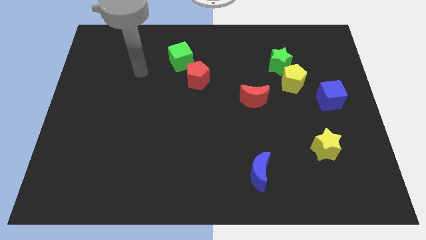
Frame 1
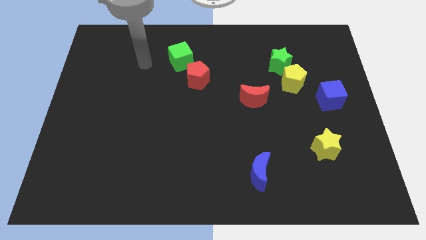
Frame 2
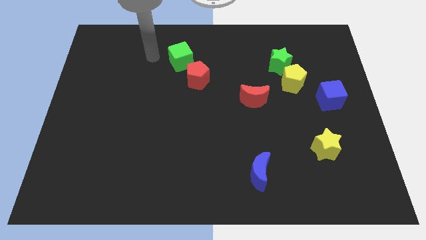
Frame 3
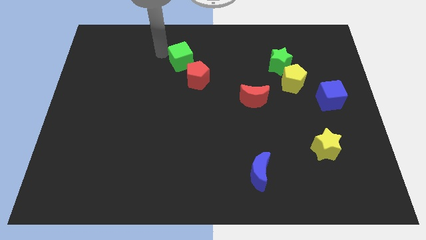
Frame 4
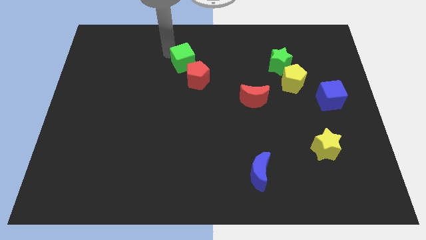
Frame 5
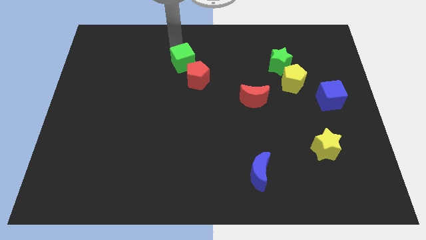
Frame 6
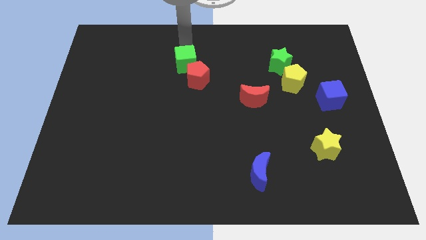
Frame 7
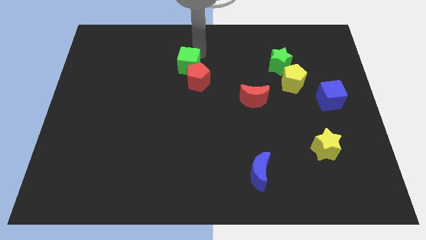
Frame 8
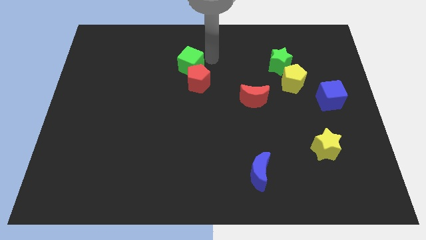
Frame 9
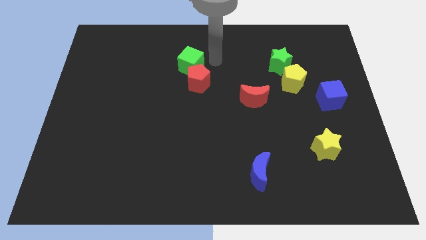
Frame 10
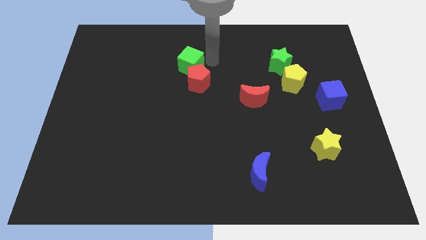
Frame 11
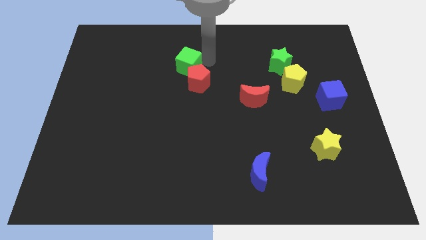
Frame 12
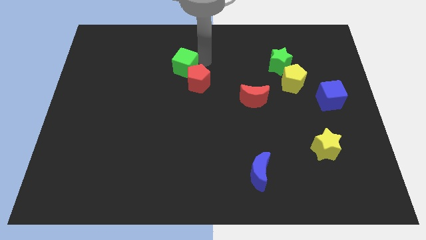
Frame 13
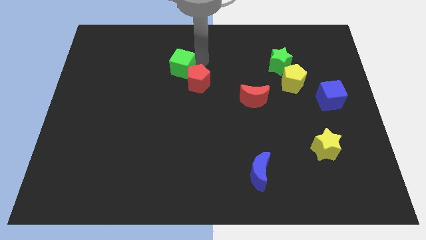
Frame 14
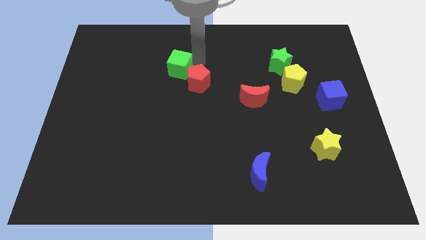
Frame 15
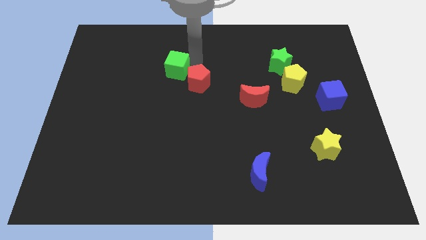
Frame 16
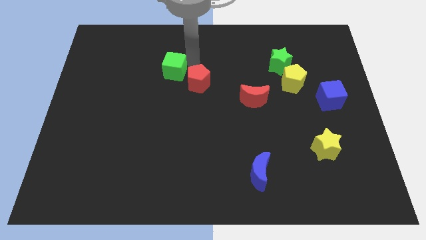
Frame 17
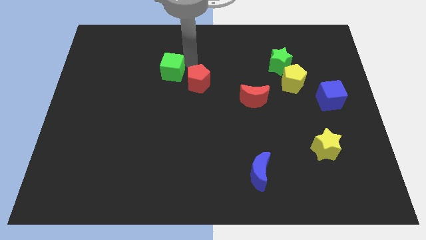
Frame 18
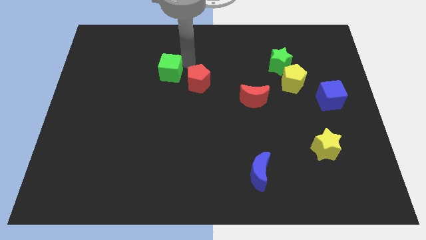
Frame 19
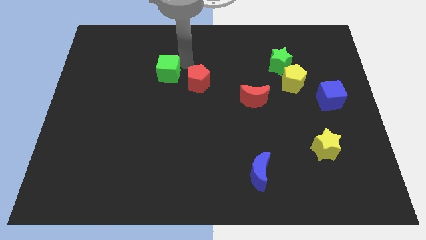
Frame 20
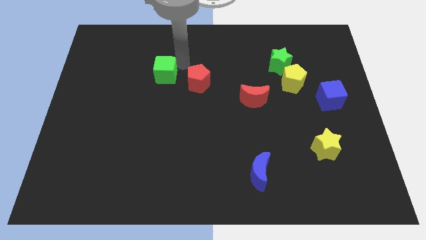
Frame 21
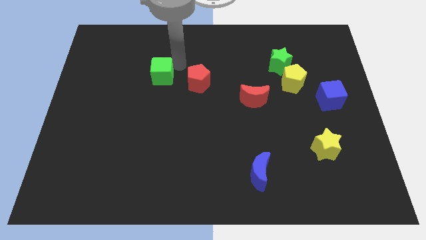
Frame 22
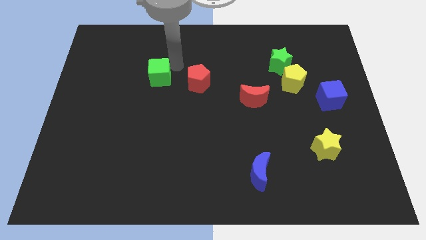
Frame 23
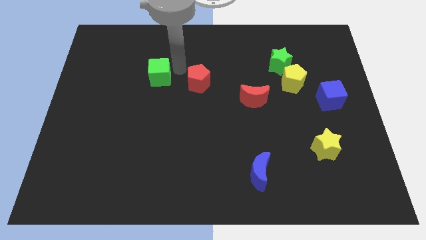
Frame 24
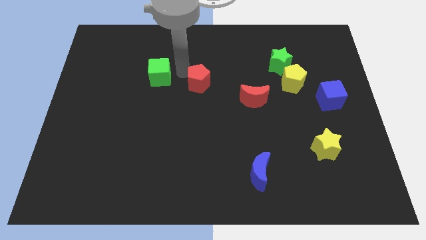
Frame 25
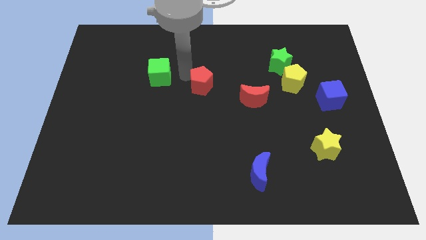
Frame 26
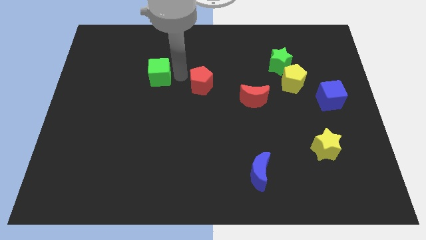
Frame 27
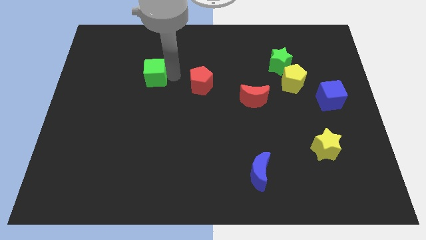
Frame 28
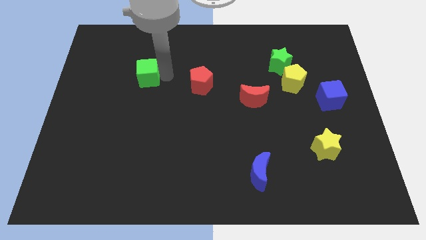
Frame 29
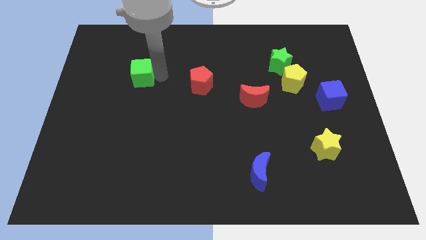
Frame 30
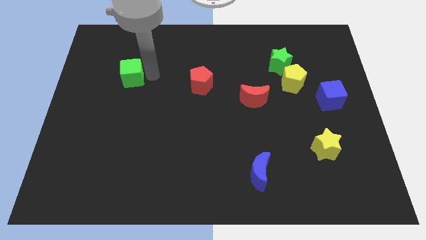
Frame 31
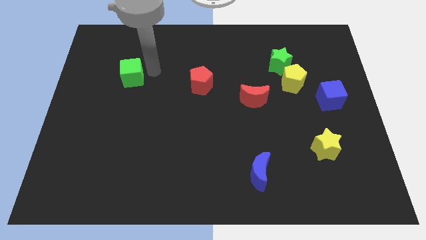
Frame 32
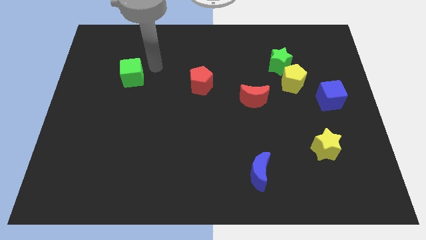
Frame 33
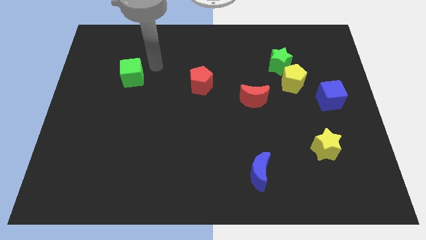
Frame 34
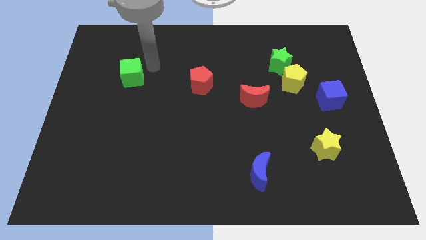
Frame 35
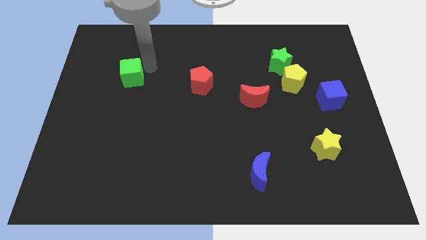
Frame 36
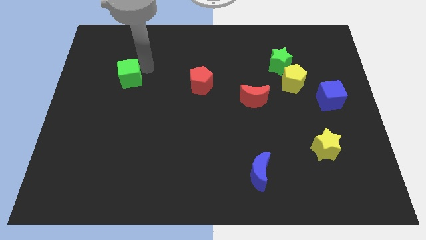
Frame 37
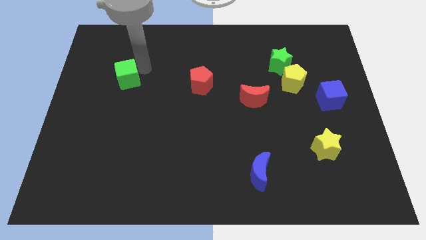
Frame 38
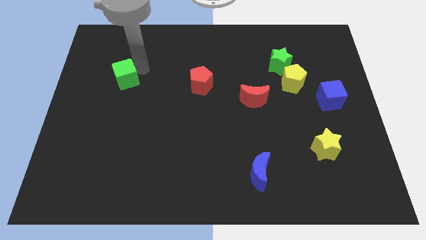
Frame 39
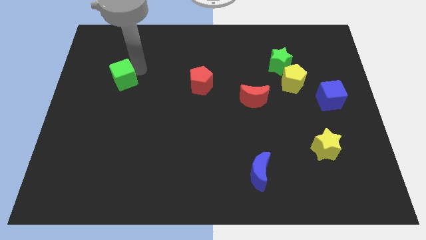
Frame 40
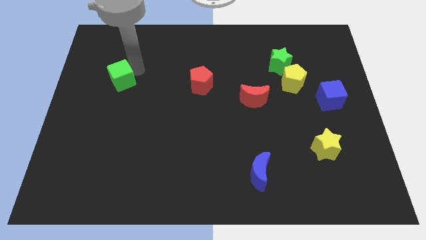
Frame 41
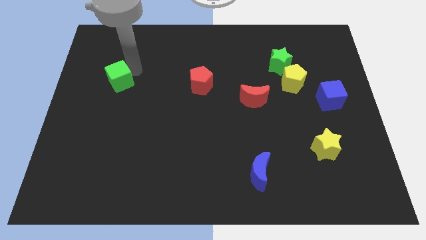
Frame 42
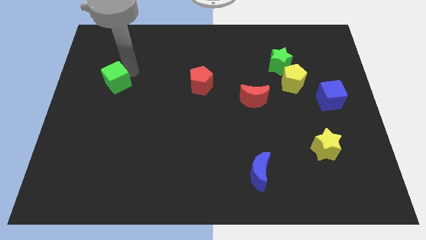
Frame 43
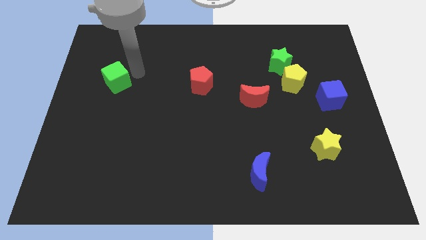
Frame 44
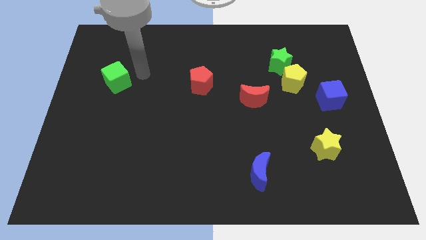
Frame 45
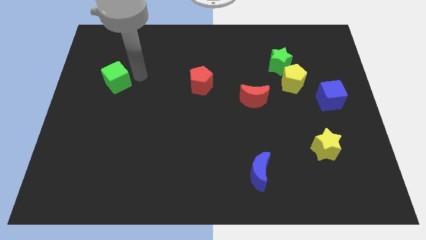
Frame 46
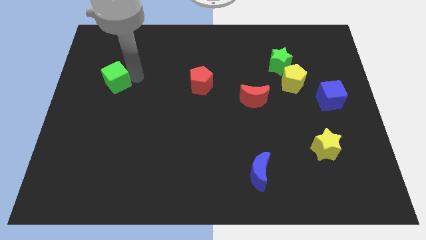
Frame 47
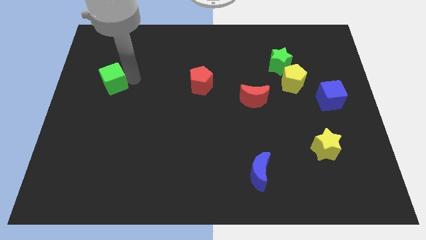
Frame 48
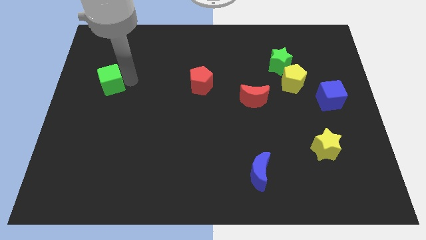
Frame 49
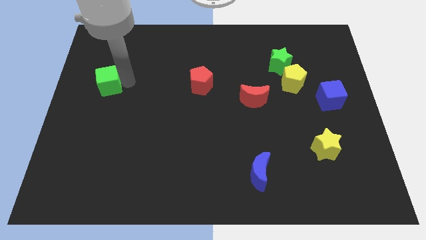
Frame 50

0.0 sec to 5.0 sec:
move the green cube to the left side

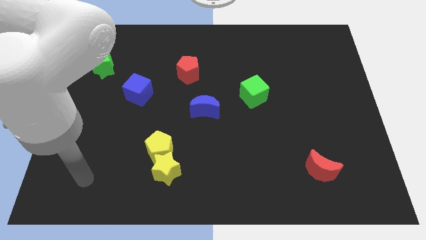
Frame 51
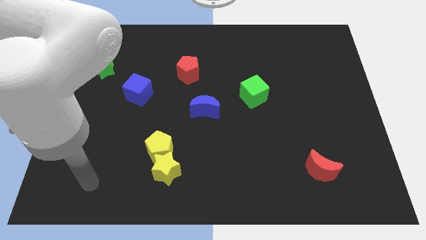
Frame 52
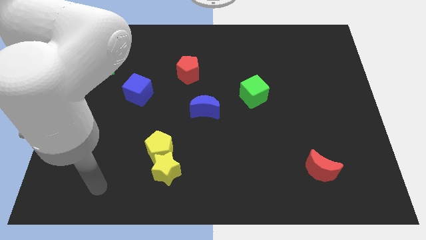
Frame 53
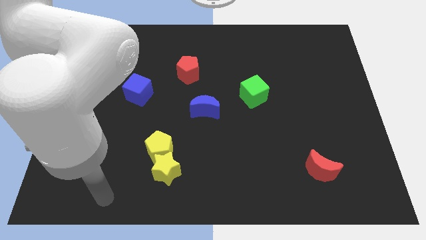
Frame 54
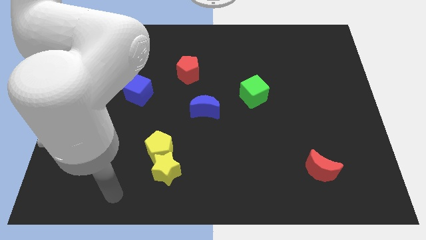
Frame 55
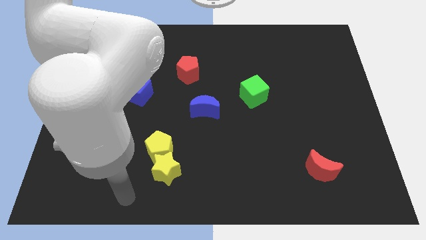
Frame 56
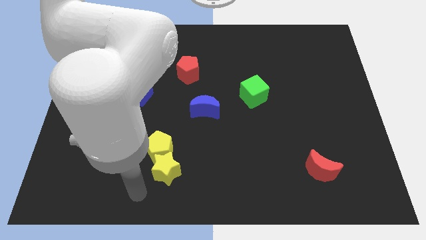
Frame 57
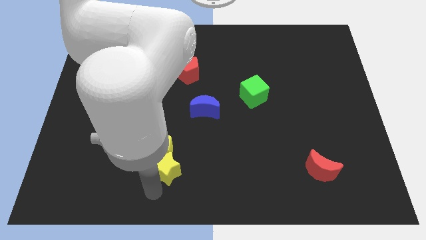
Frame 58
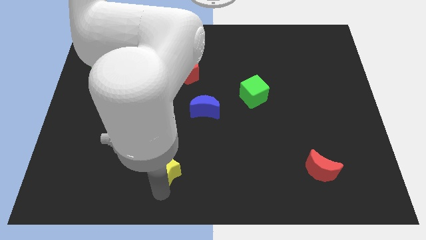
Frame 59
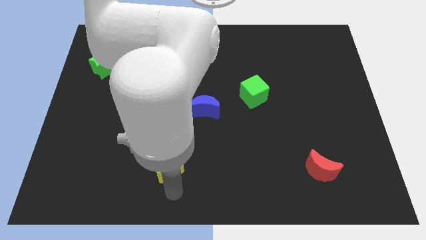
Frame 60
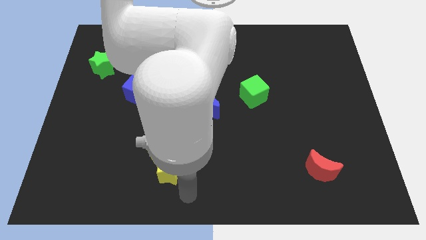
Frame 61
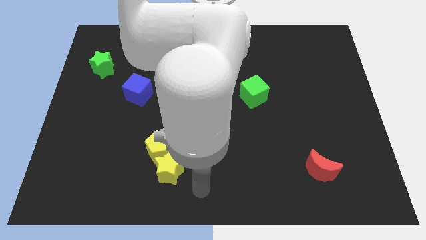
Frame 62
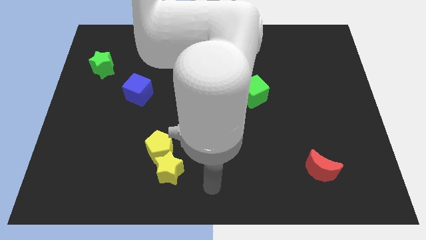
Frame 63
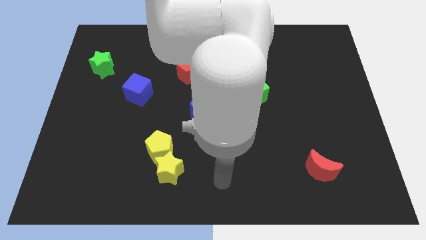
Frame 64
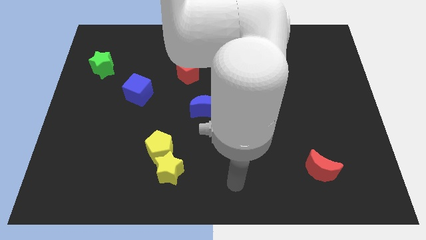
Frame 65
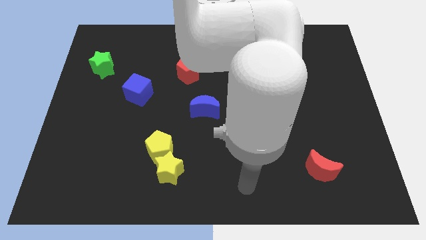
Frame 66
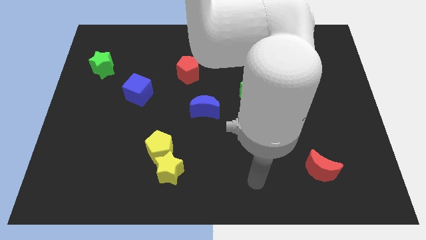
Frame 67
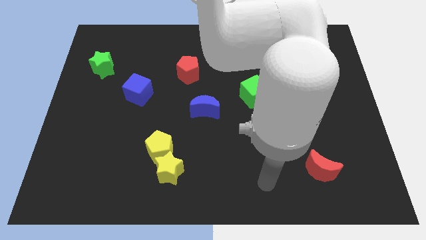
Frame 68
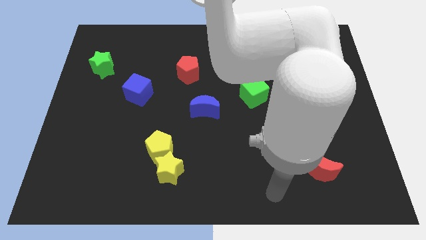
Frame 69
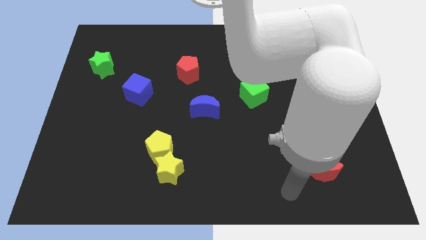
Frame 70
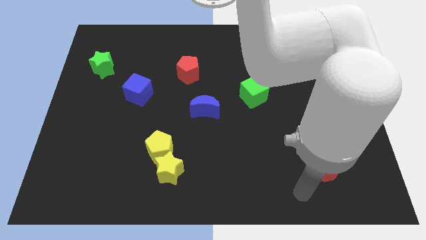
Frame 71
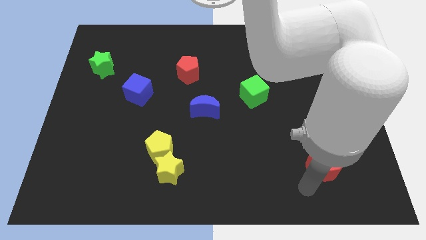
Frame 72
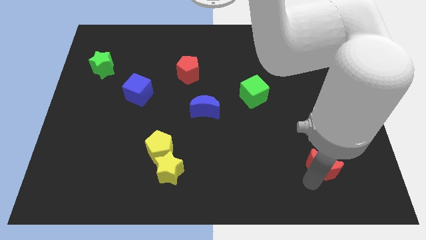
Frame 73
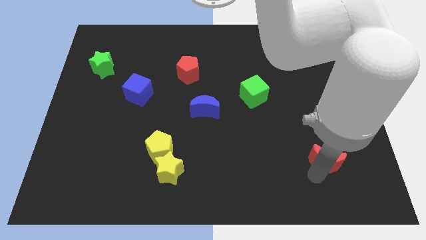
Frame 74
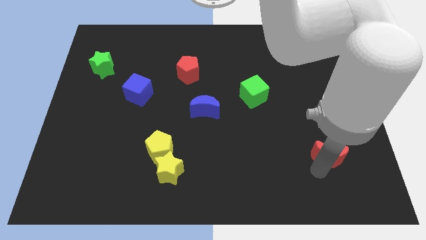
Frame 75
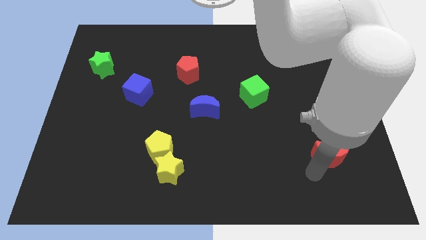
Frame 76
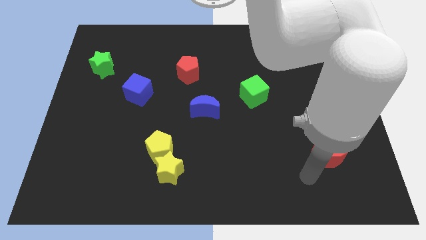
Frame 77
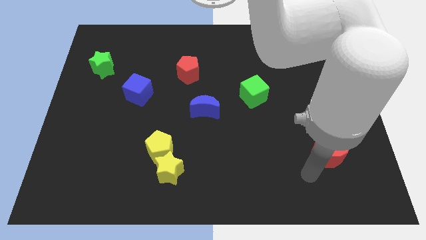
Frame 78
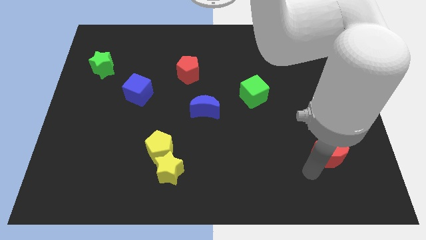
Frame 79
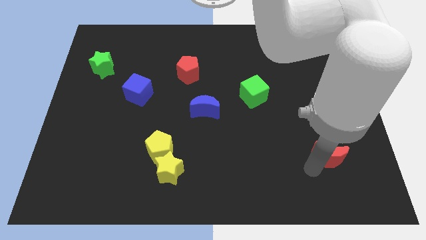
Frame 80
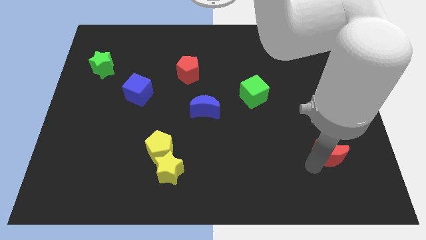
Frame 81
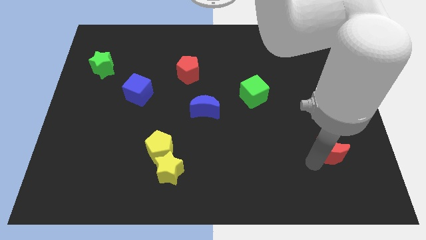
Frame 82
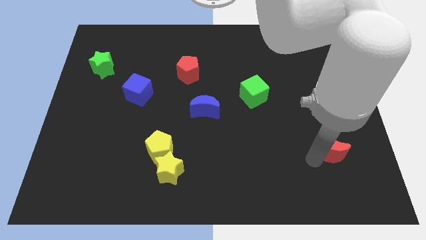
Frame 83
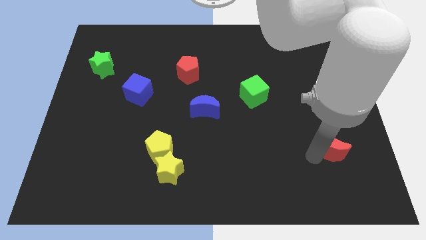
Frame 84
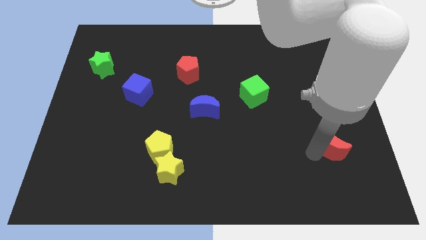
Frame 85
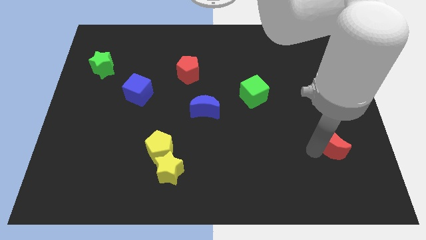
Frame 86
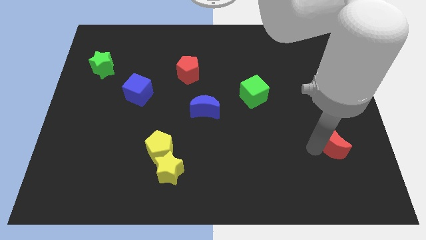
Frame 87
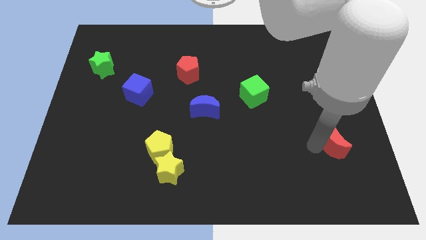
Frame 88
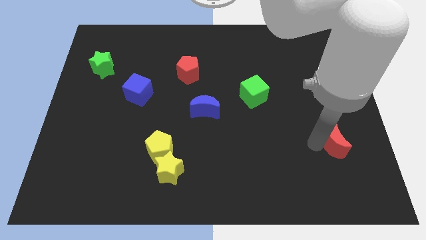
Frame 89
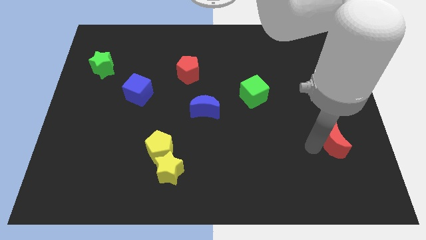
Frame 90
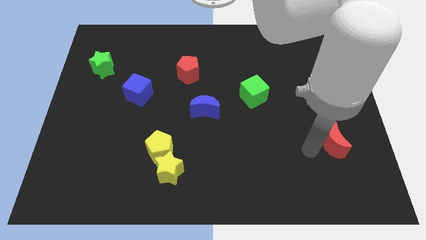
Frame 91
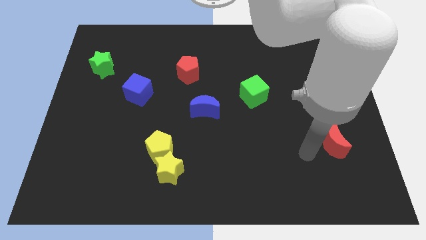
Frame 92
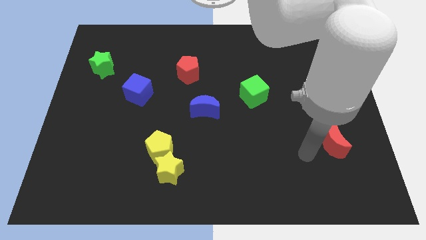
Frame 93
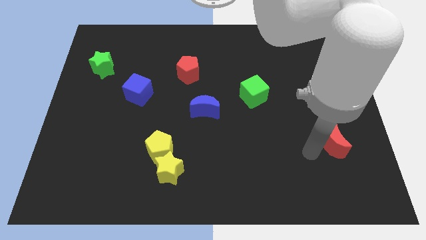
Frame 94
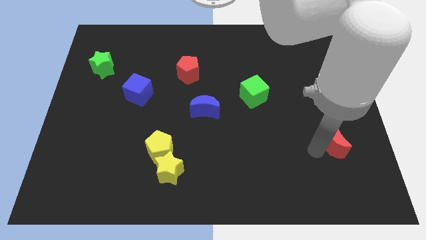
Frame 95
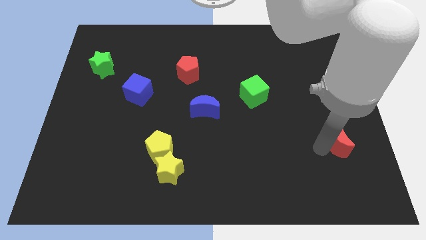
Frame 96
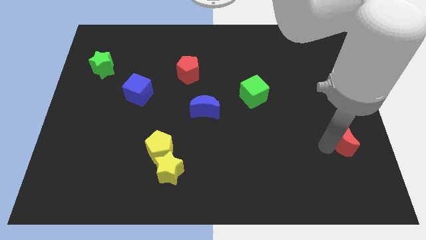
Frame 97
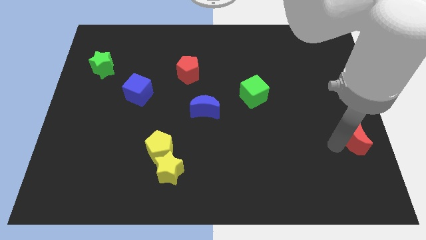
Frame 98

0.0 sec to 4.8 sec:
slide the red moon to the right side
